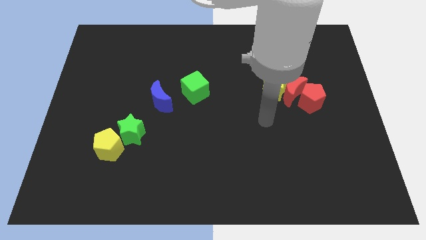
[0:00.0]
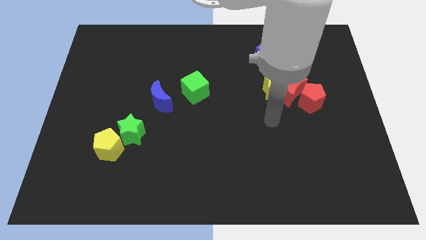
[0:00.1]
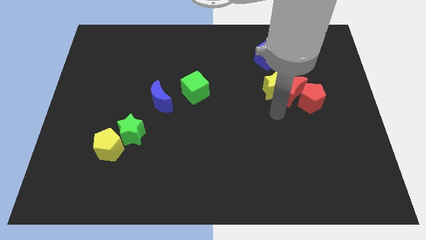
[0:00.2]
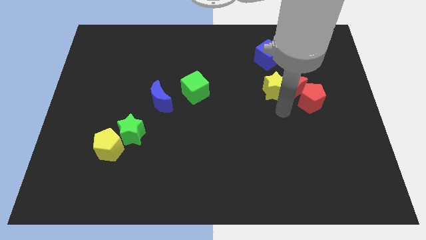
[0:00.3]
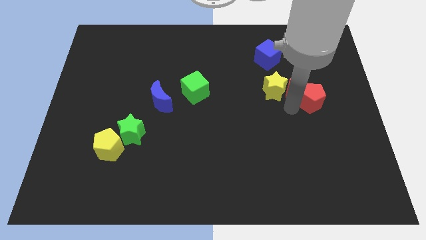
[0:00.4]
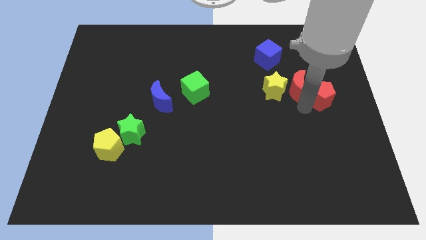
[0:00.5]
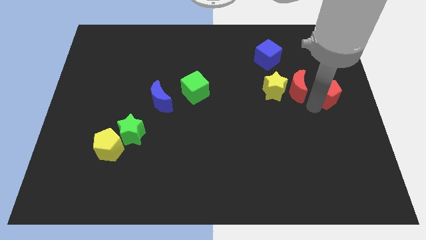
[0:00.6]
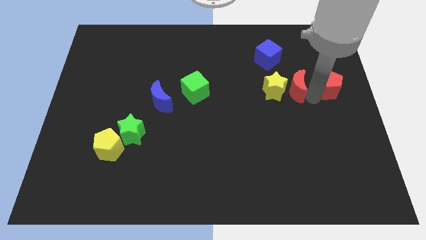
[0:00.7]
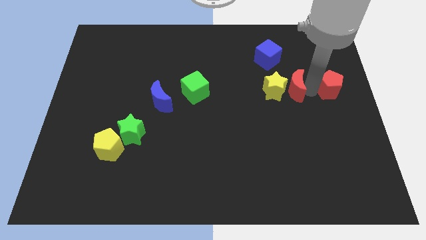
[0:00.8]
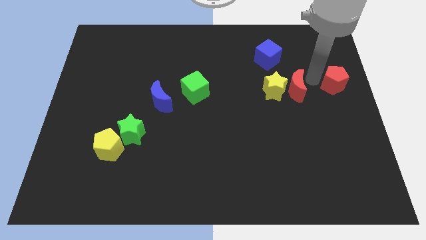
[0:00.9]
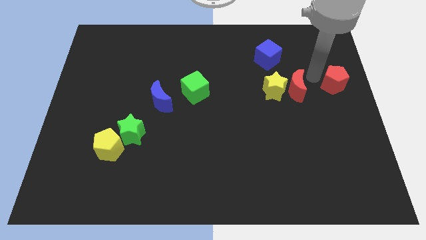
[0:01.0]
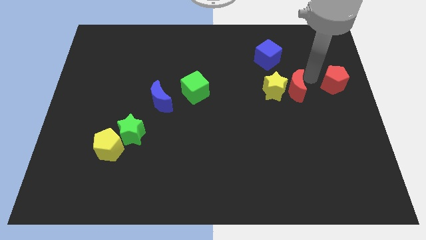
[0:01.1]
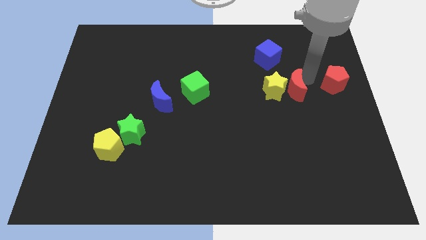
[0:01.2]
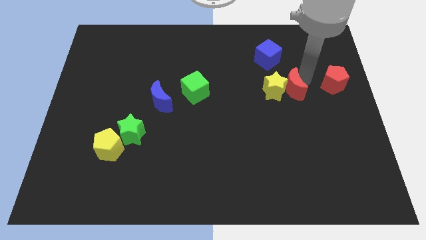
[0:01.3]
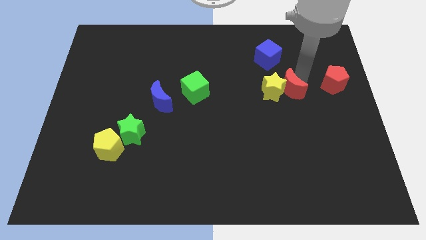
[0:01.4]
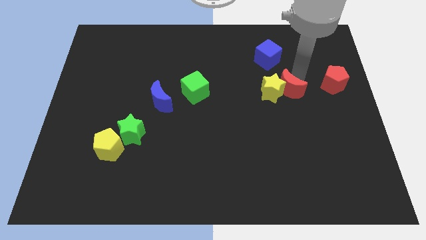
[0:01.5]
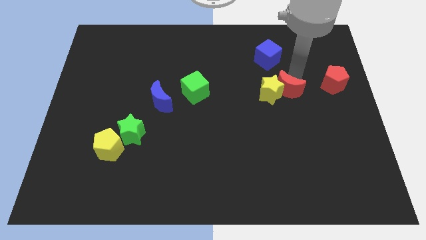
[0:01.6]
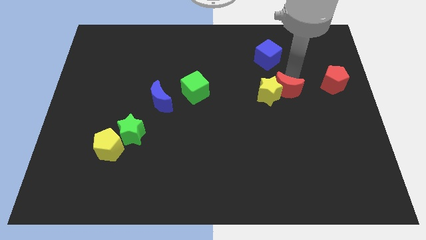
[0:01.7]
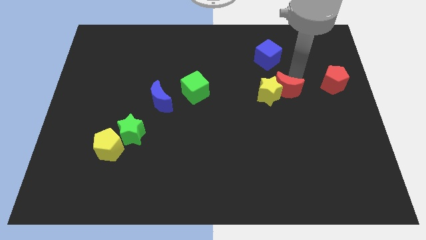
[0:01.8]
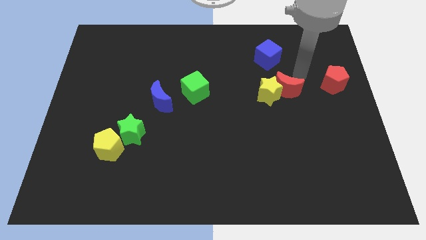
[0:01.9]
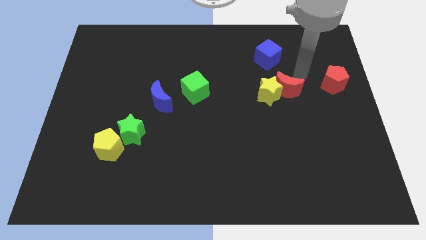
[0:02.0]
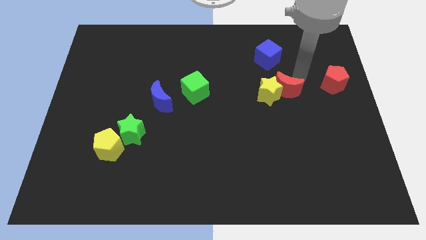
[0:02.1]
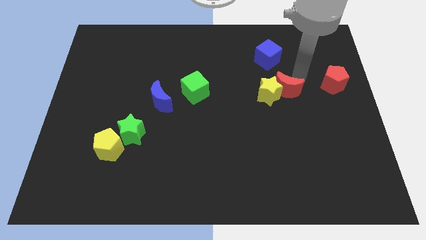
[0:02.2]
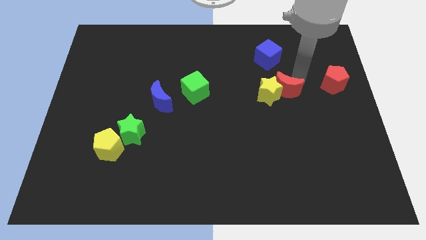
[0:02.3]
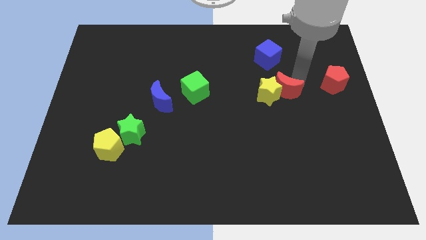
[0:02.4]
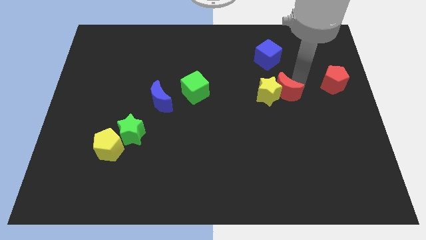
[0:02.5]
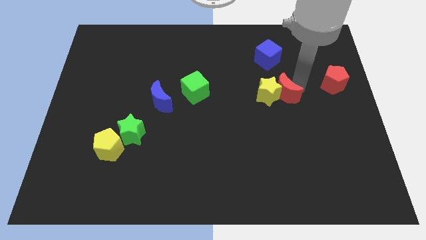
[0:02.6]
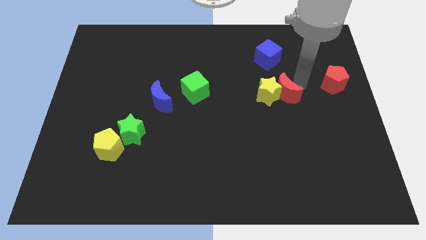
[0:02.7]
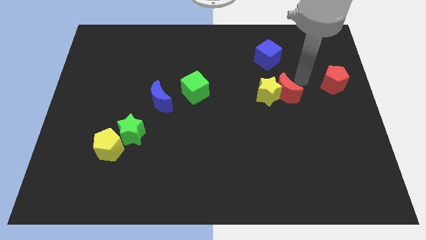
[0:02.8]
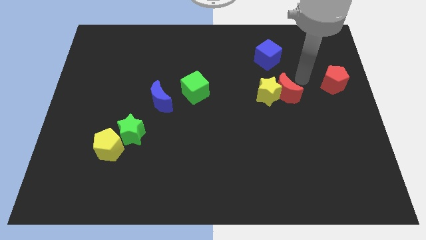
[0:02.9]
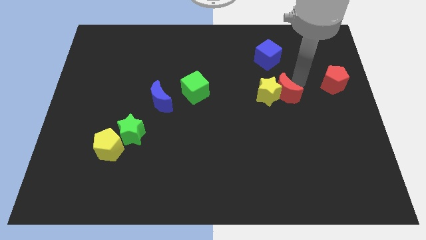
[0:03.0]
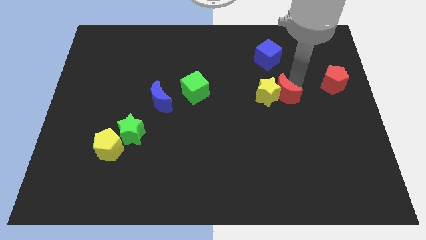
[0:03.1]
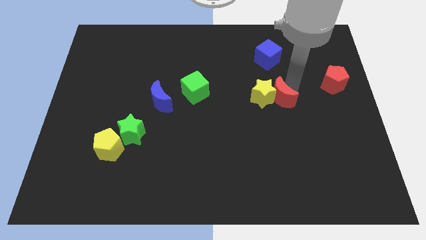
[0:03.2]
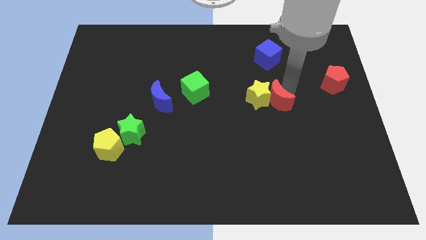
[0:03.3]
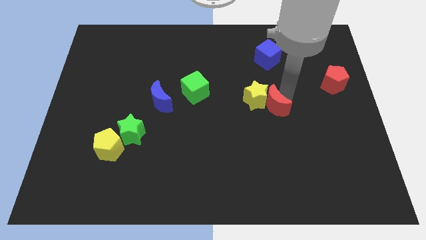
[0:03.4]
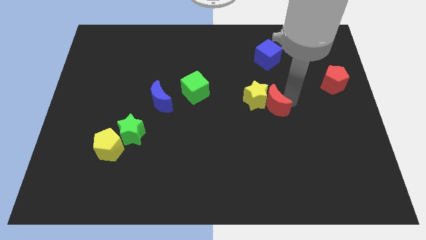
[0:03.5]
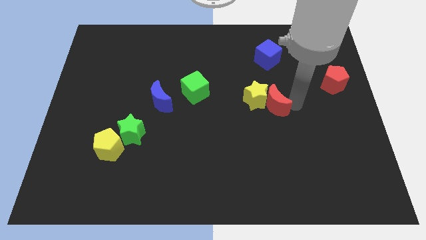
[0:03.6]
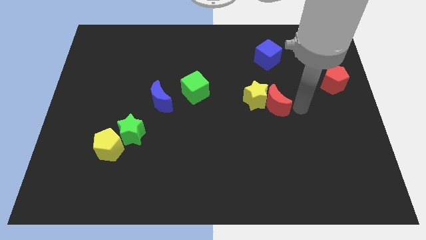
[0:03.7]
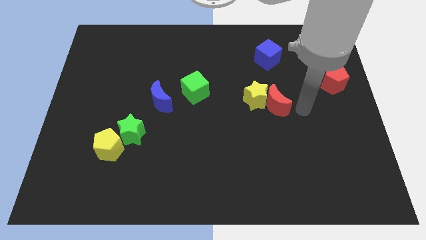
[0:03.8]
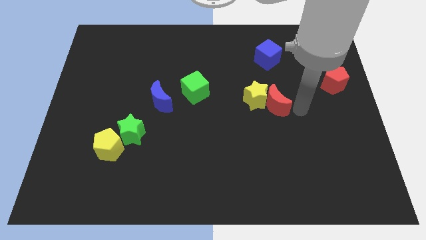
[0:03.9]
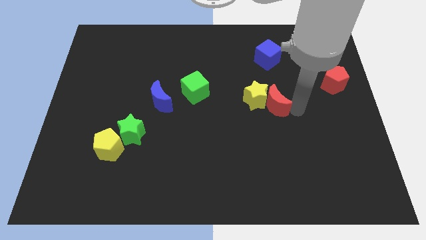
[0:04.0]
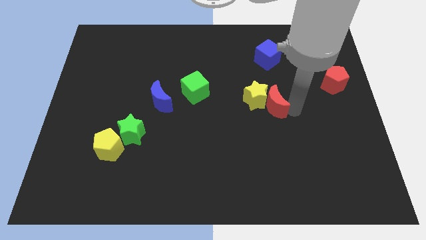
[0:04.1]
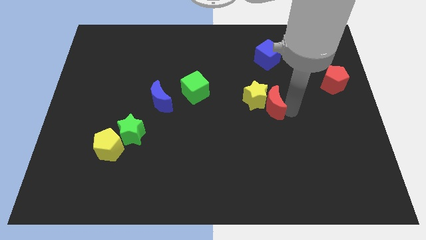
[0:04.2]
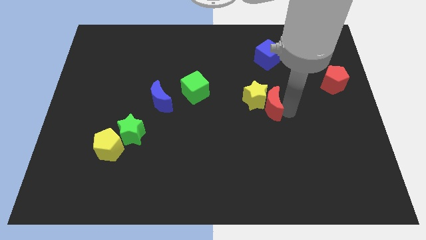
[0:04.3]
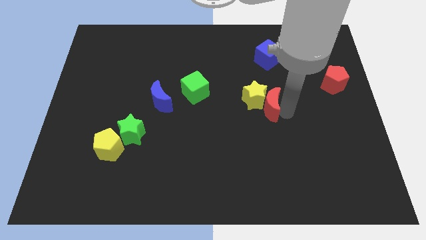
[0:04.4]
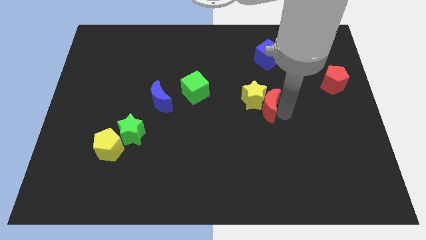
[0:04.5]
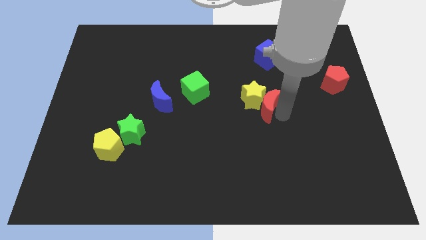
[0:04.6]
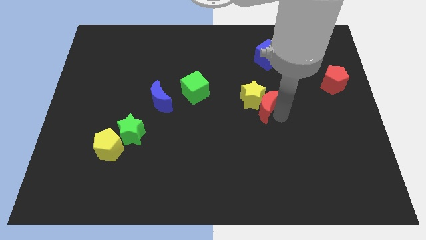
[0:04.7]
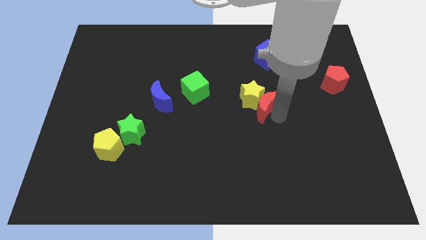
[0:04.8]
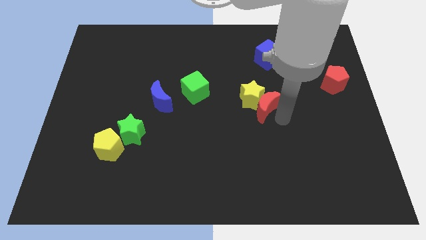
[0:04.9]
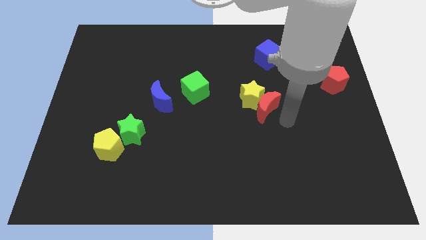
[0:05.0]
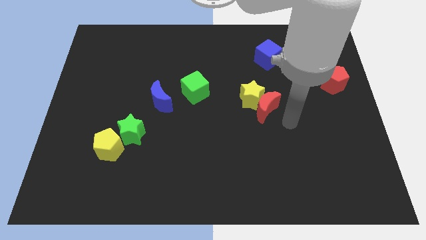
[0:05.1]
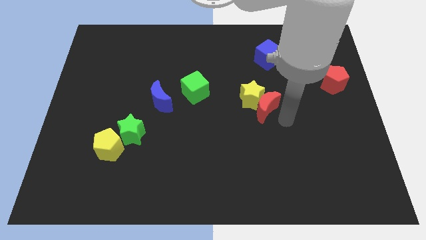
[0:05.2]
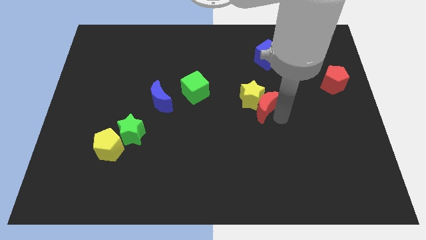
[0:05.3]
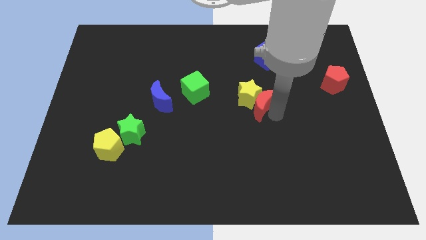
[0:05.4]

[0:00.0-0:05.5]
push the red moon to the left a bit

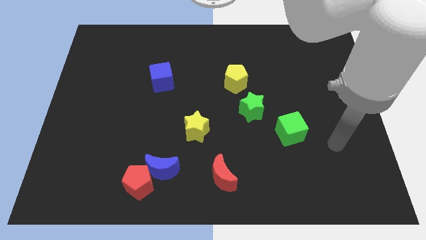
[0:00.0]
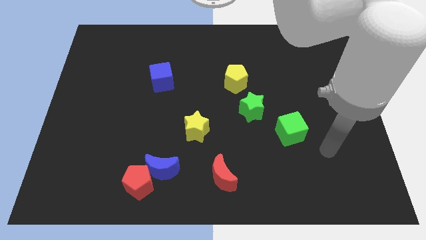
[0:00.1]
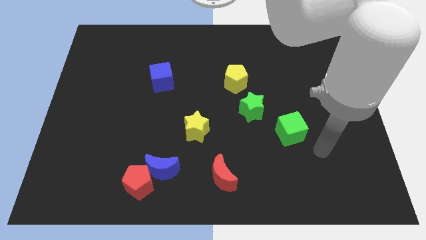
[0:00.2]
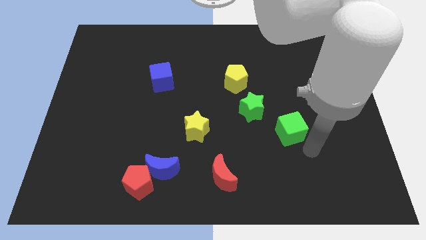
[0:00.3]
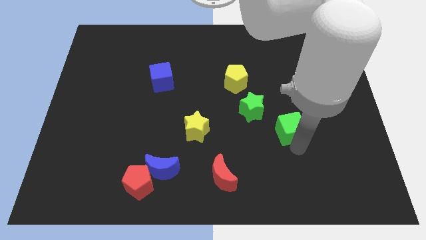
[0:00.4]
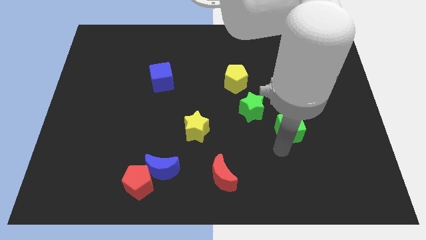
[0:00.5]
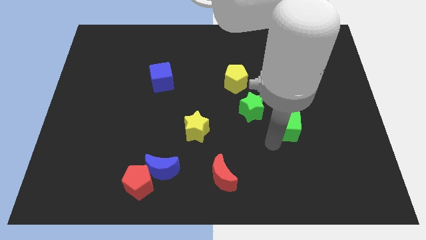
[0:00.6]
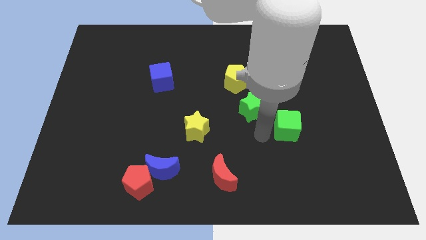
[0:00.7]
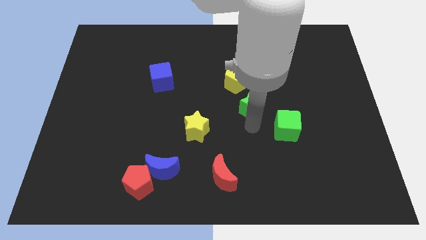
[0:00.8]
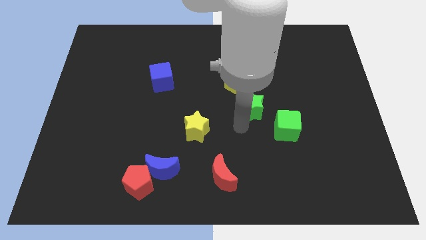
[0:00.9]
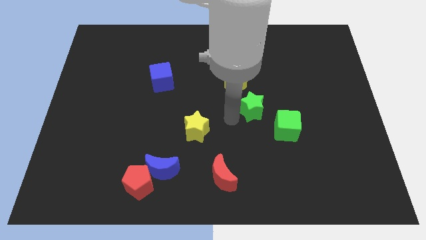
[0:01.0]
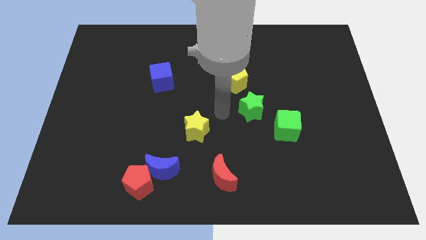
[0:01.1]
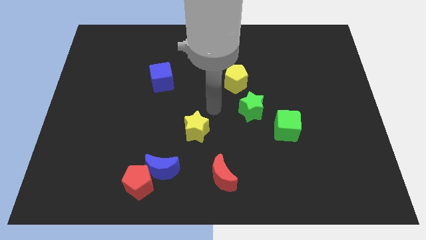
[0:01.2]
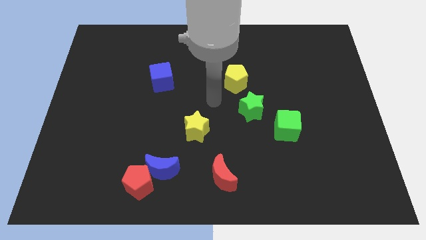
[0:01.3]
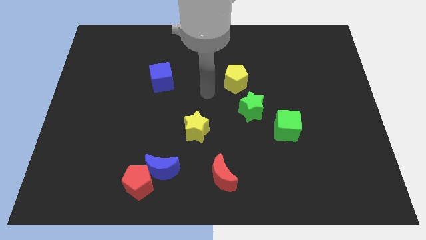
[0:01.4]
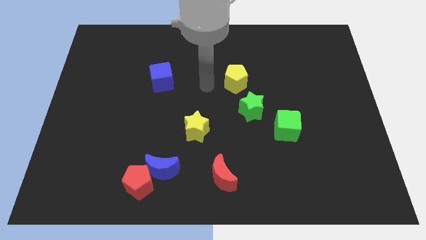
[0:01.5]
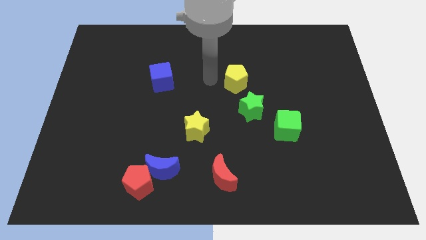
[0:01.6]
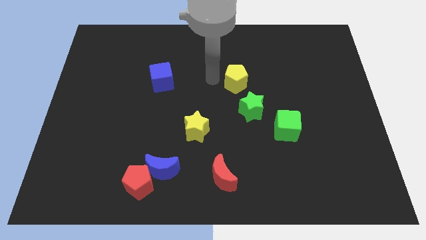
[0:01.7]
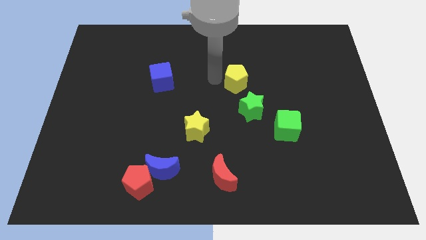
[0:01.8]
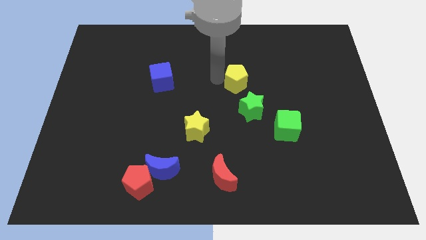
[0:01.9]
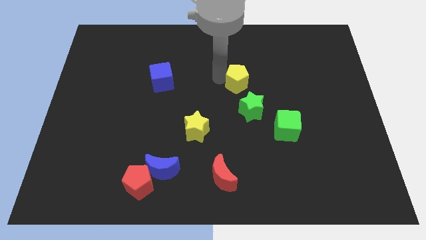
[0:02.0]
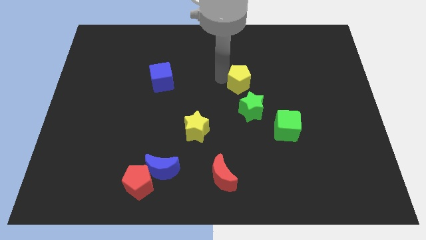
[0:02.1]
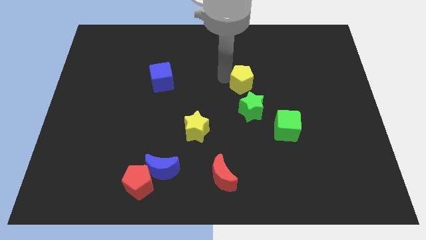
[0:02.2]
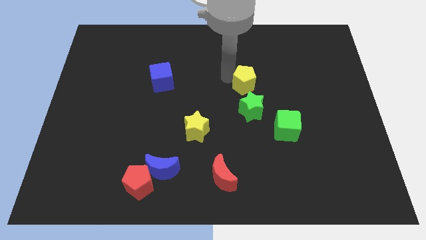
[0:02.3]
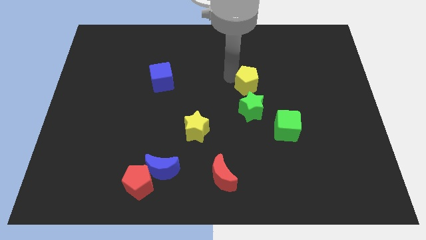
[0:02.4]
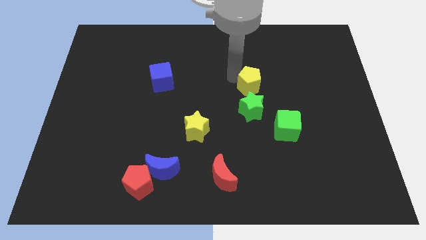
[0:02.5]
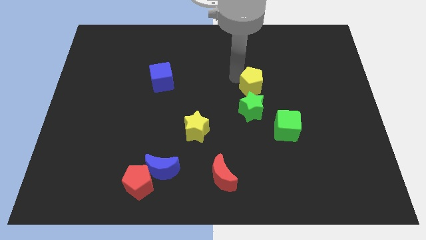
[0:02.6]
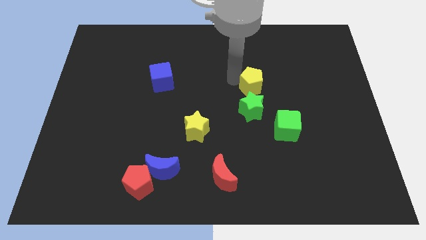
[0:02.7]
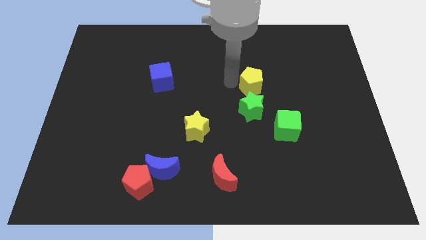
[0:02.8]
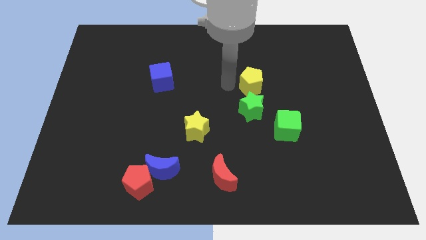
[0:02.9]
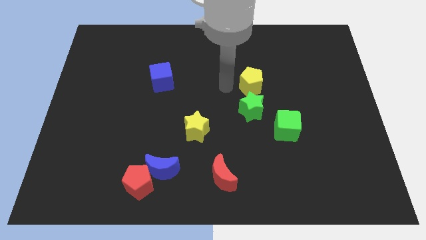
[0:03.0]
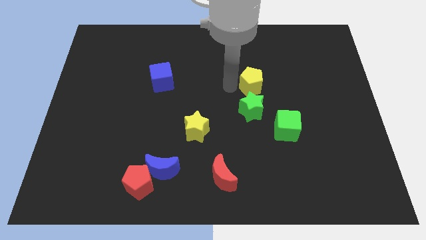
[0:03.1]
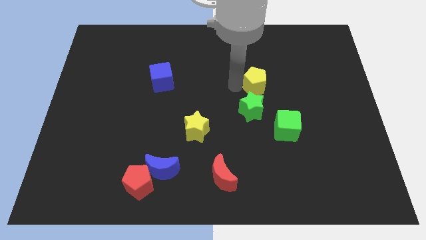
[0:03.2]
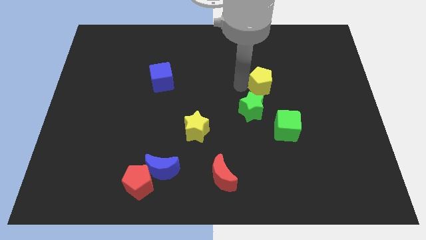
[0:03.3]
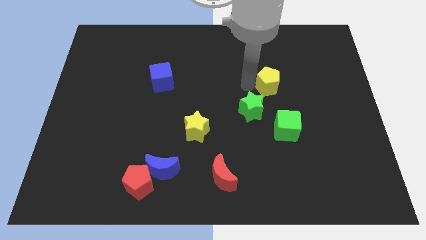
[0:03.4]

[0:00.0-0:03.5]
slightly push the yellow pentagon to the right
